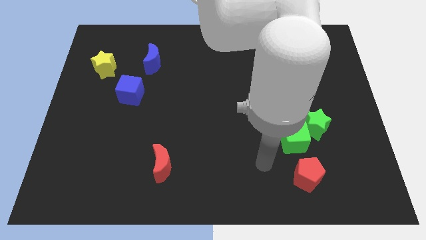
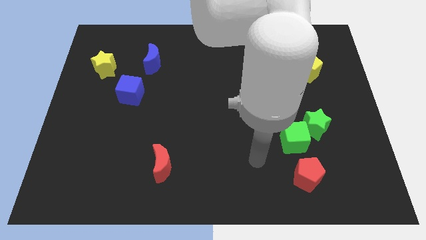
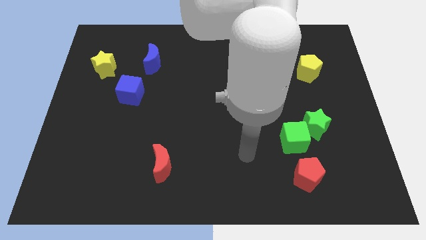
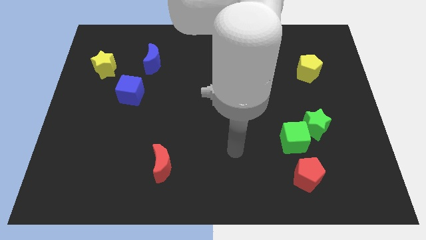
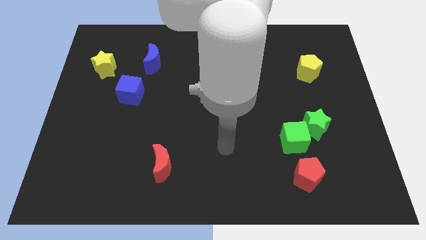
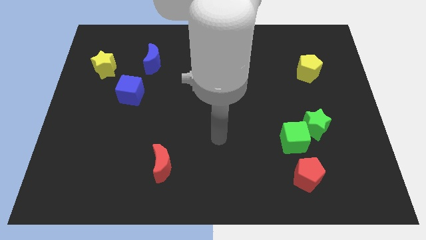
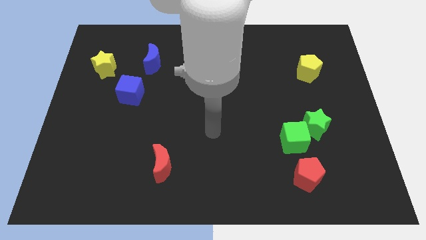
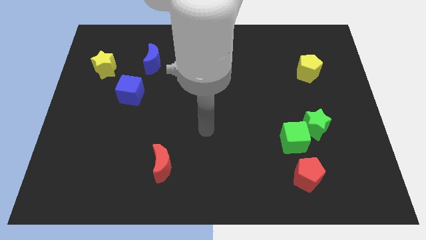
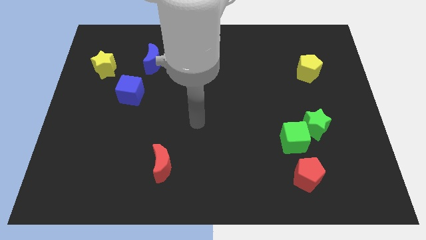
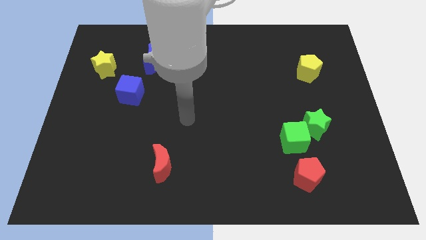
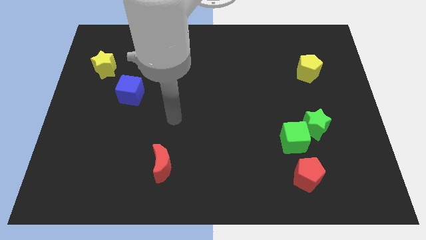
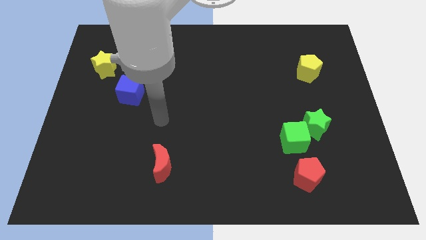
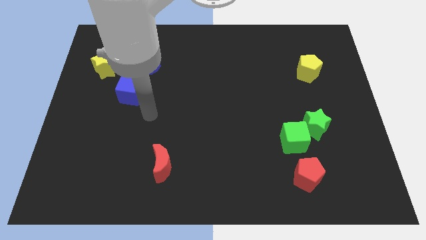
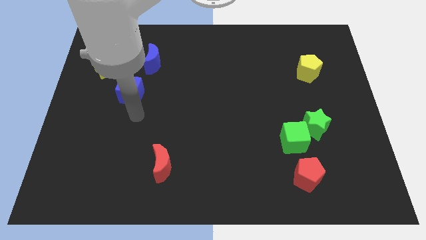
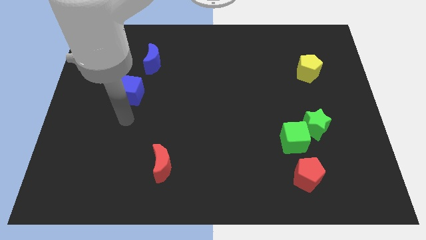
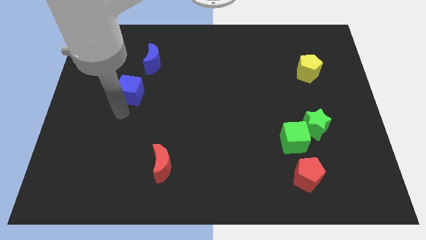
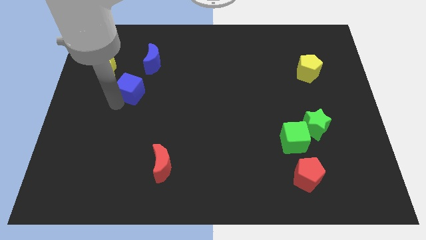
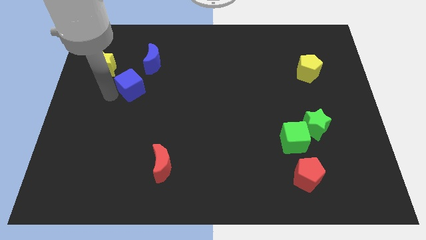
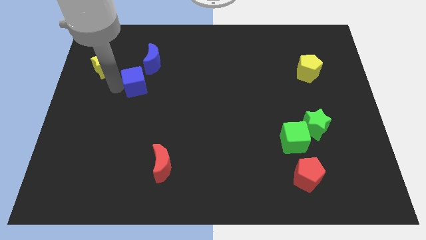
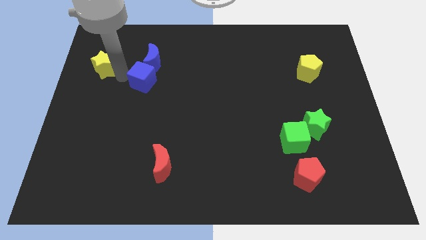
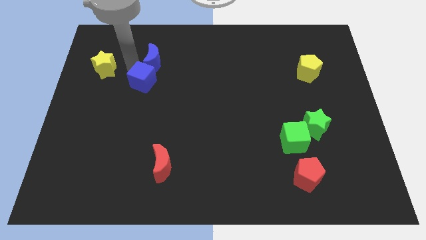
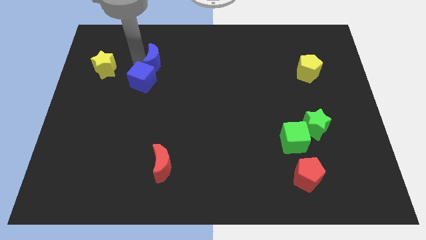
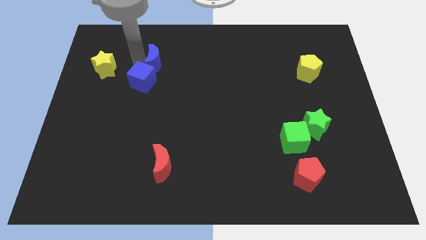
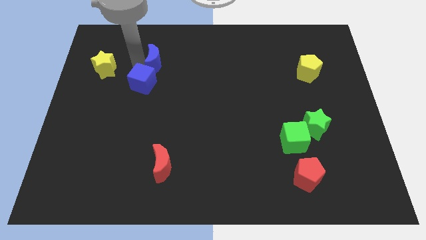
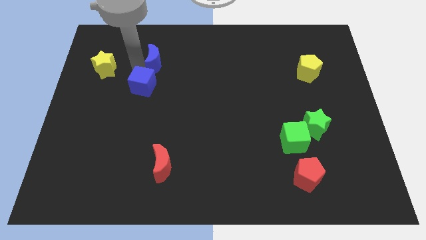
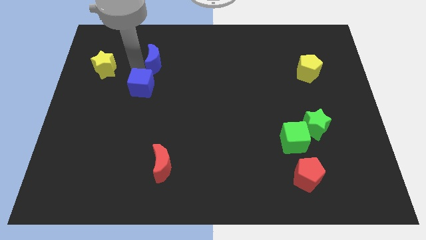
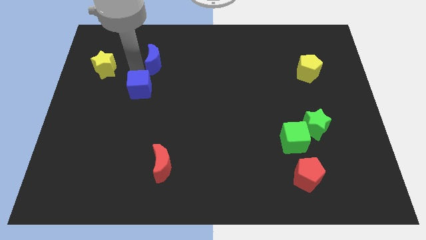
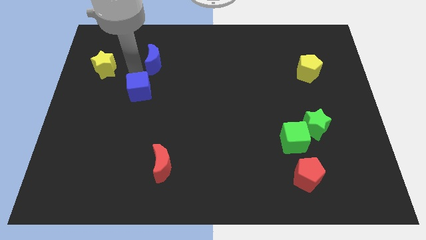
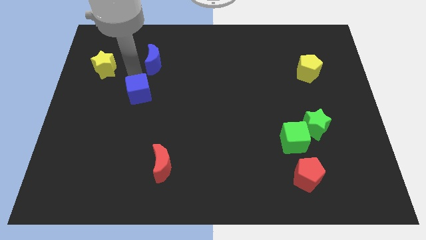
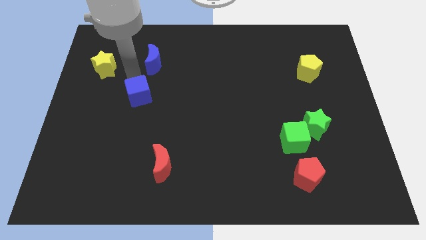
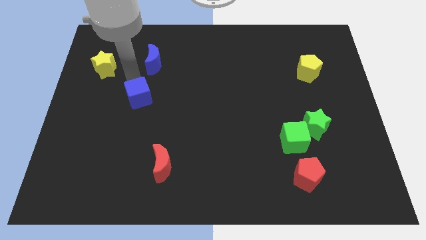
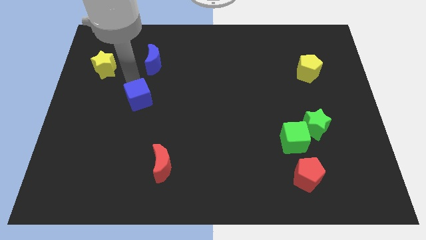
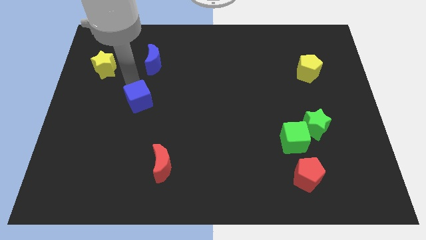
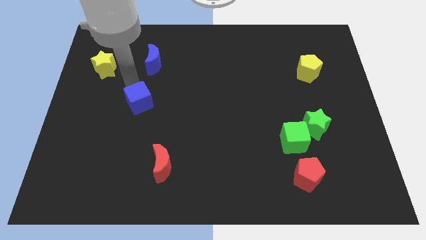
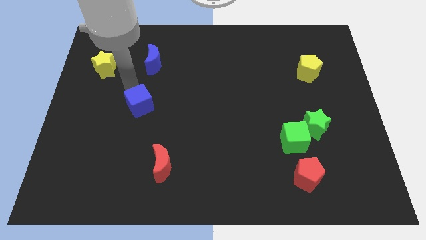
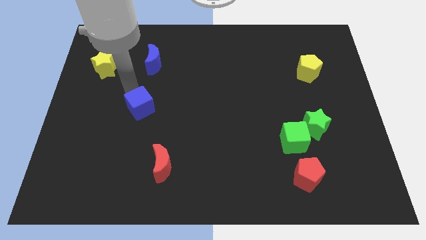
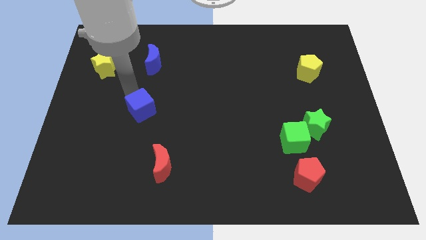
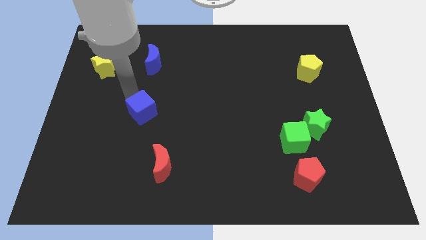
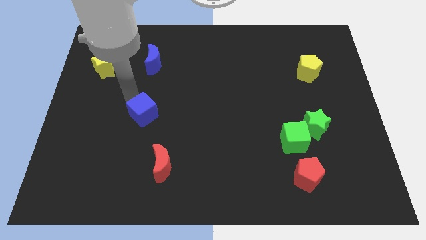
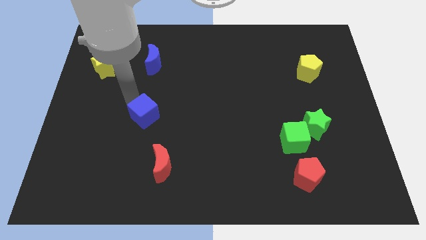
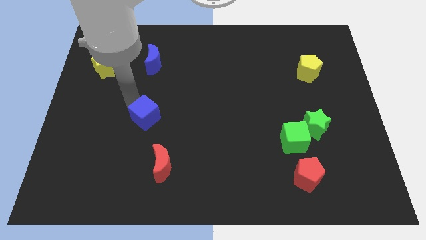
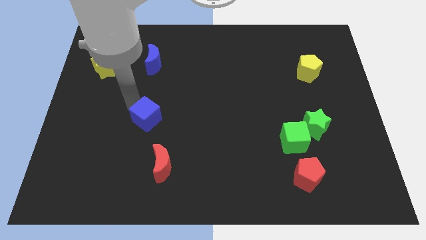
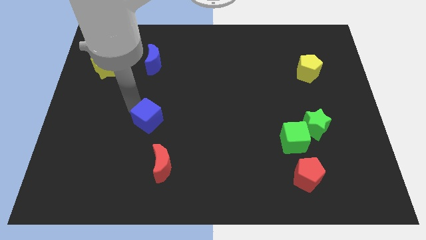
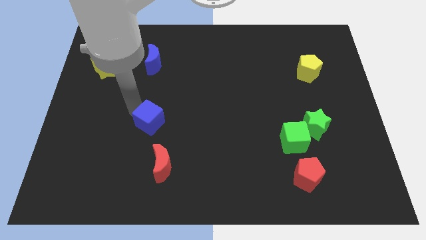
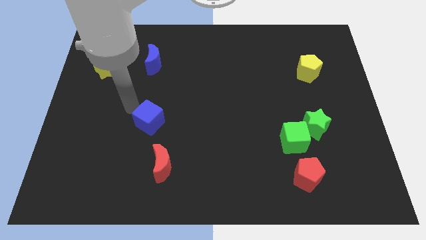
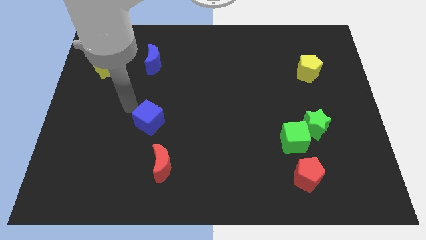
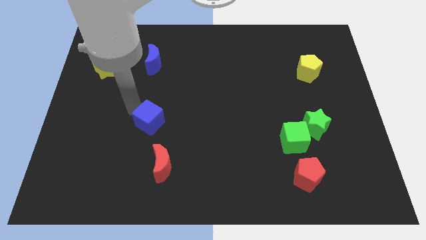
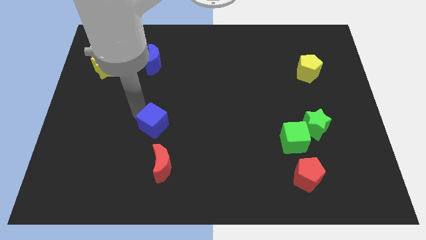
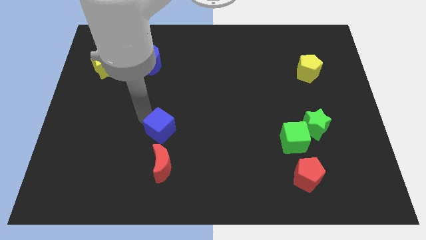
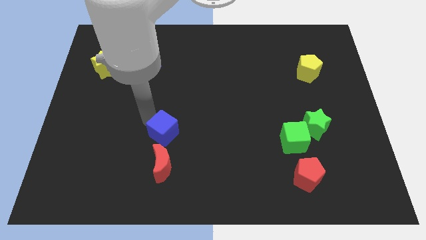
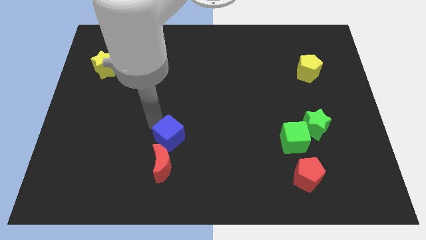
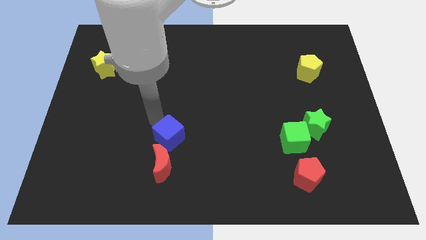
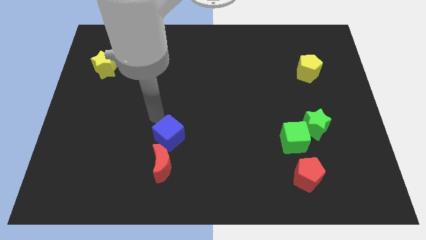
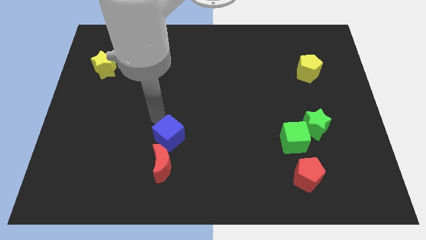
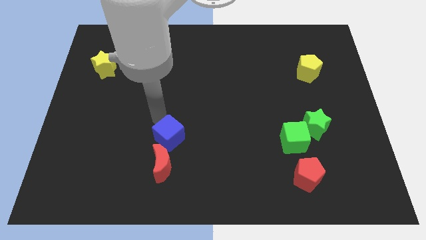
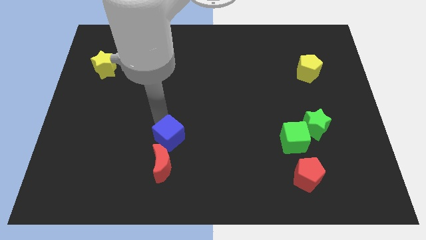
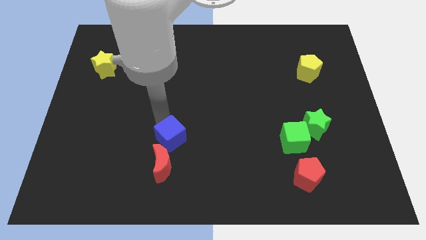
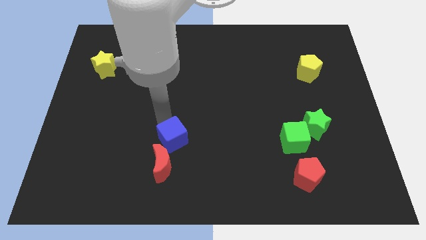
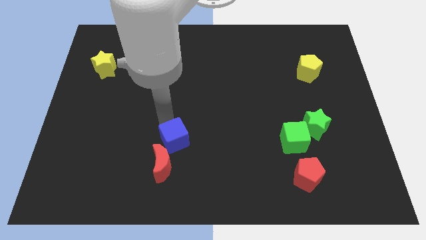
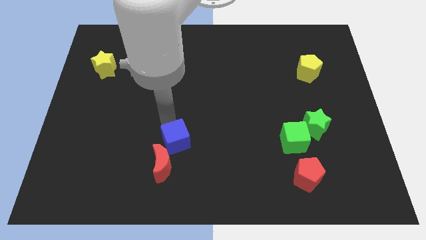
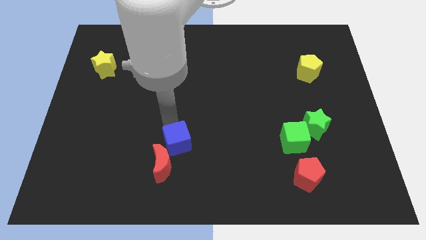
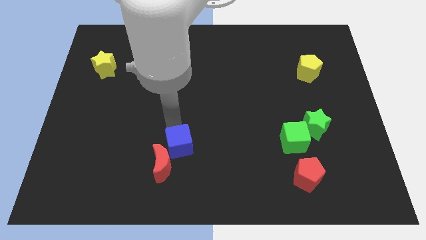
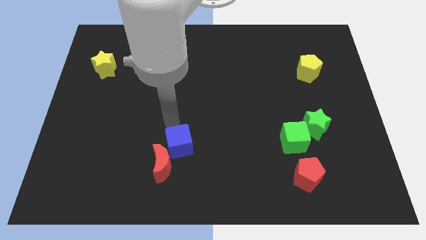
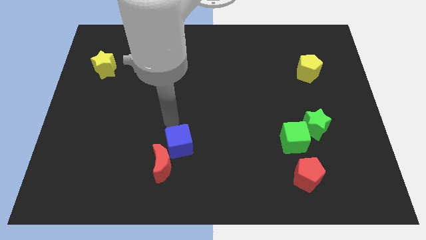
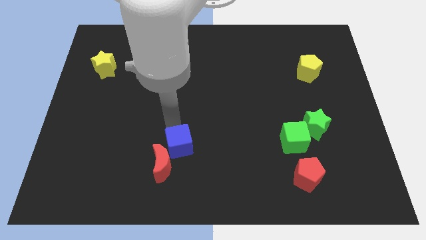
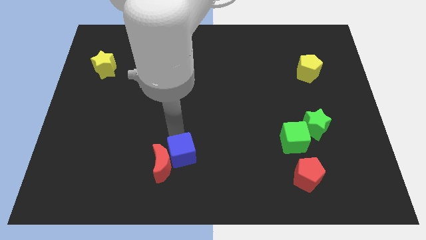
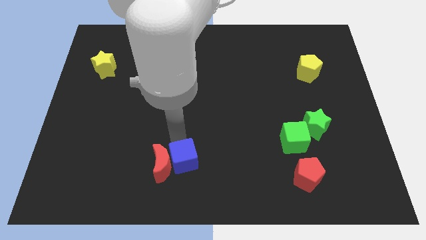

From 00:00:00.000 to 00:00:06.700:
slide the blue cube to the bottom side
